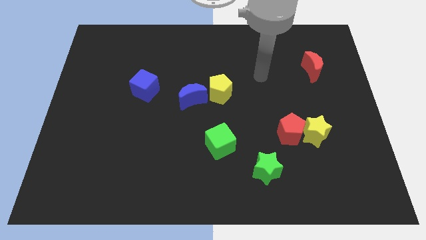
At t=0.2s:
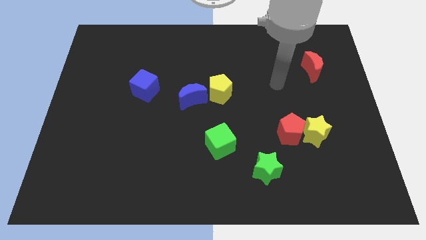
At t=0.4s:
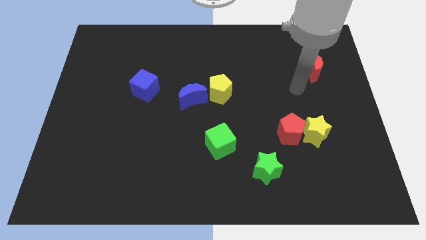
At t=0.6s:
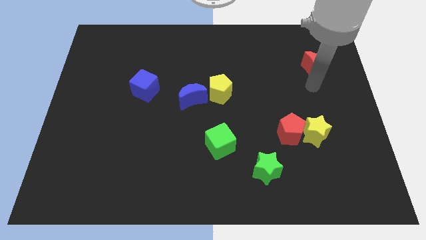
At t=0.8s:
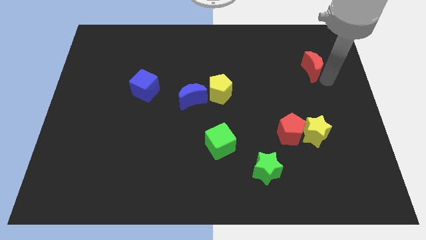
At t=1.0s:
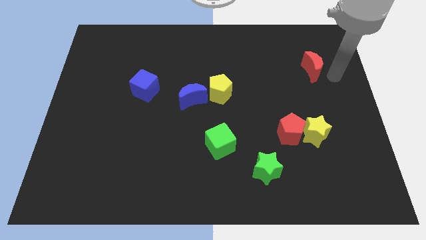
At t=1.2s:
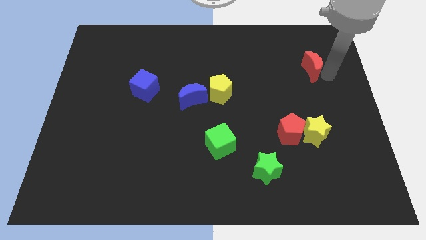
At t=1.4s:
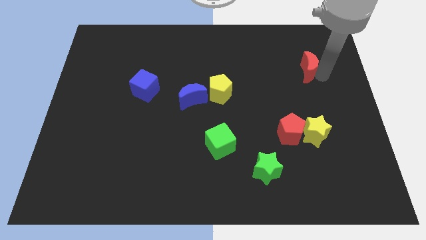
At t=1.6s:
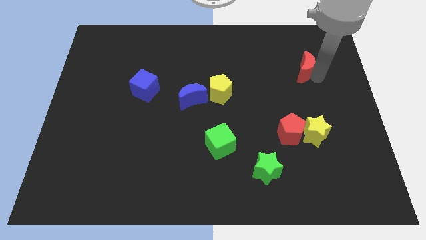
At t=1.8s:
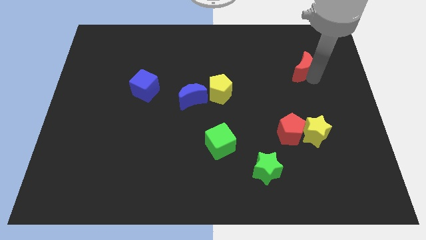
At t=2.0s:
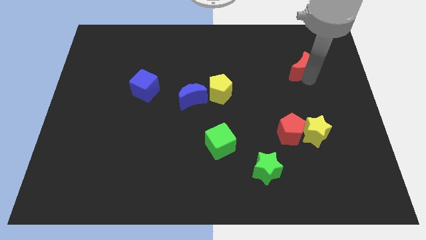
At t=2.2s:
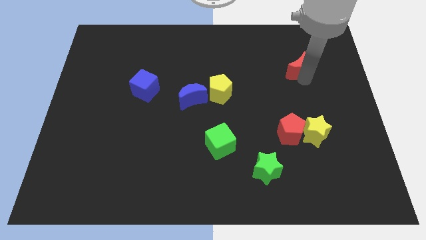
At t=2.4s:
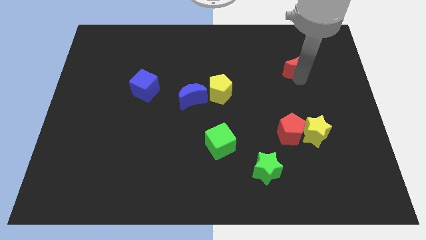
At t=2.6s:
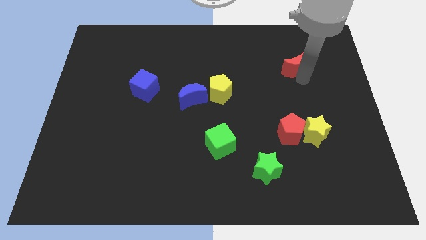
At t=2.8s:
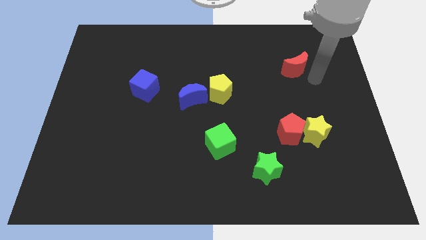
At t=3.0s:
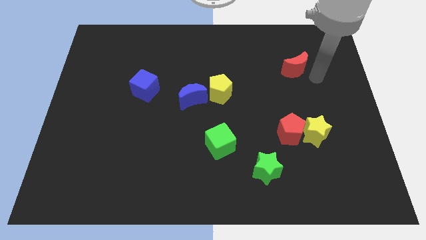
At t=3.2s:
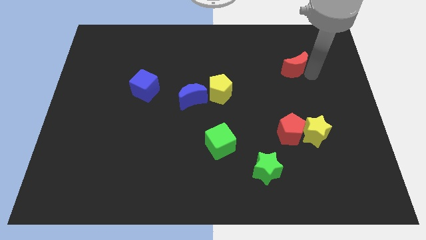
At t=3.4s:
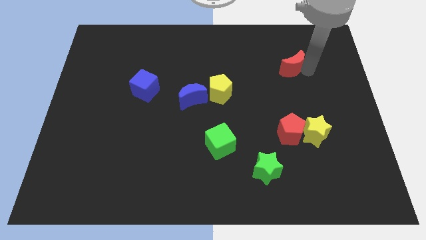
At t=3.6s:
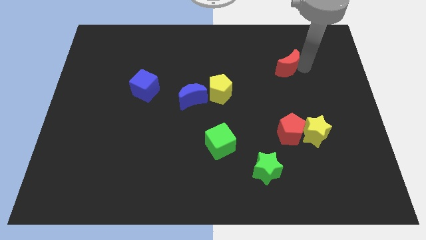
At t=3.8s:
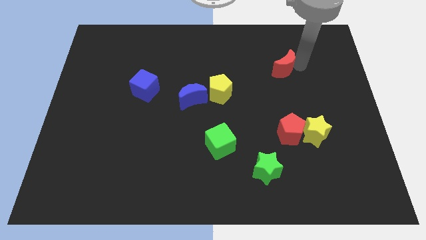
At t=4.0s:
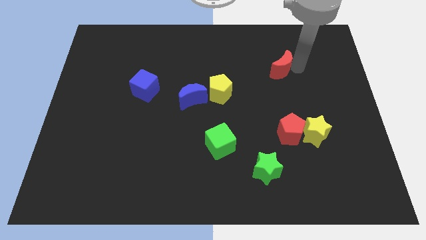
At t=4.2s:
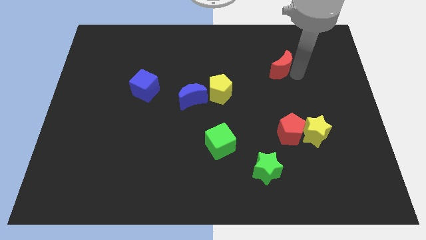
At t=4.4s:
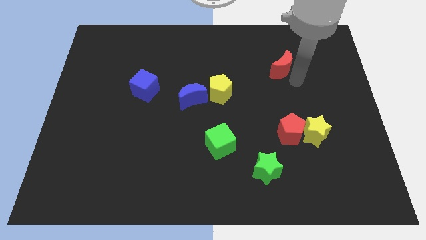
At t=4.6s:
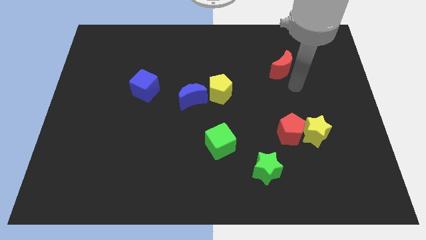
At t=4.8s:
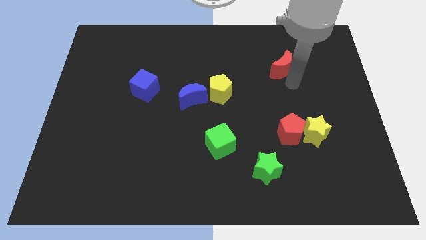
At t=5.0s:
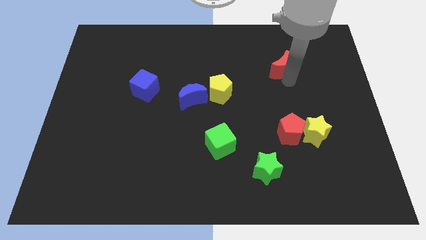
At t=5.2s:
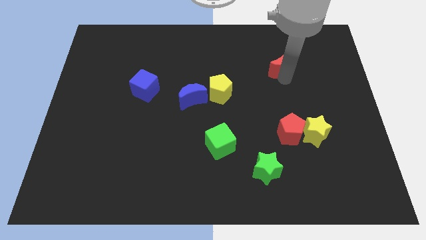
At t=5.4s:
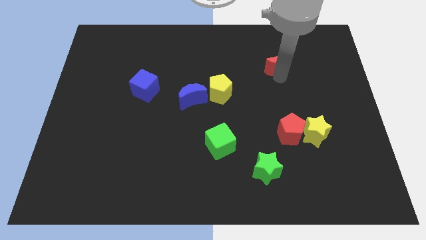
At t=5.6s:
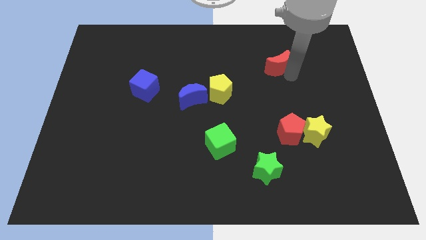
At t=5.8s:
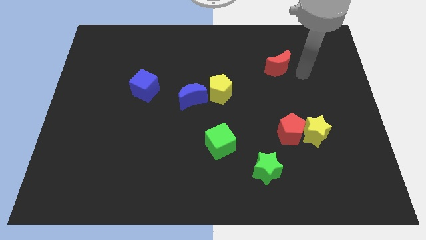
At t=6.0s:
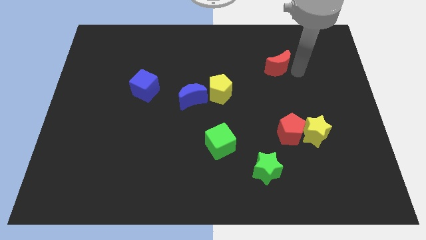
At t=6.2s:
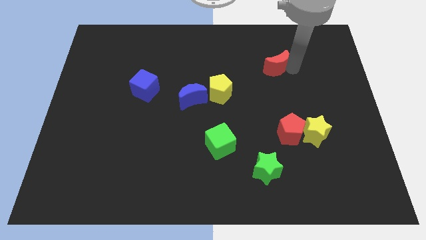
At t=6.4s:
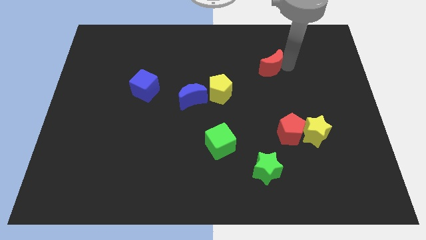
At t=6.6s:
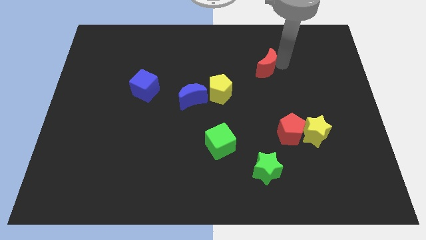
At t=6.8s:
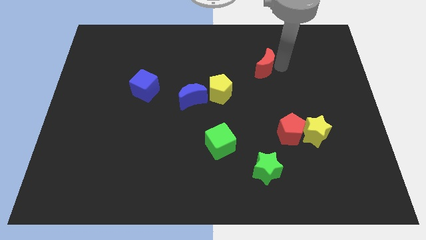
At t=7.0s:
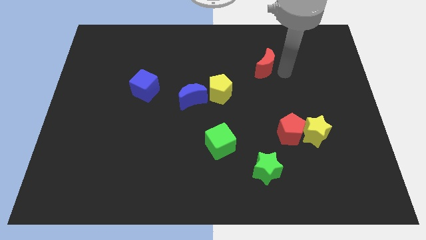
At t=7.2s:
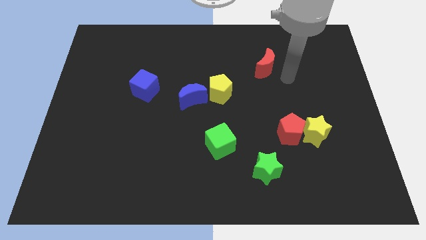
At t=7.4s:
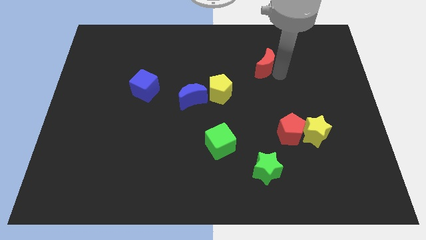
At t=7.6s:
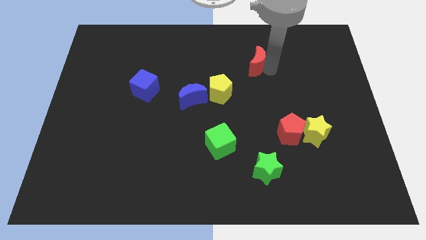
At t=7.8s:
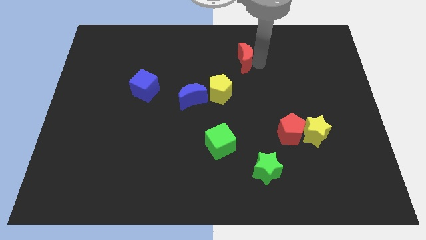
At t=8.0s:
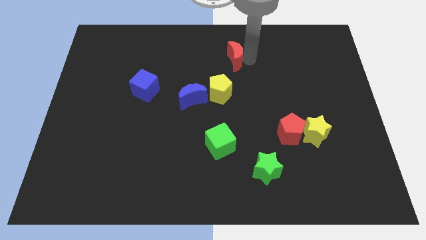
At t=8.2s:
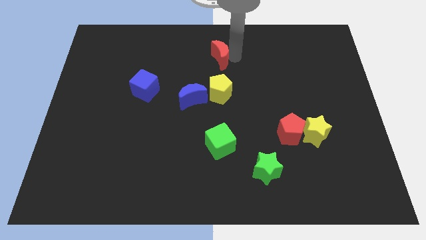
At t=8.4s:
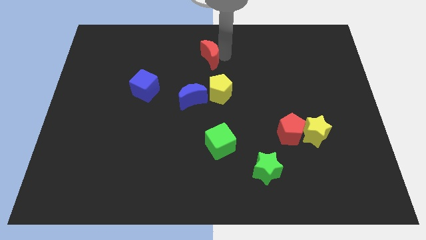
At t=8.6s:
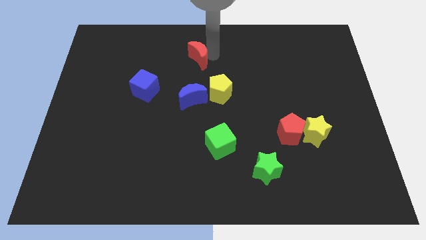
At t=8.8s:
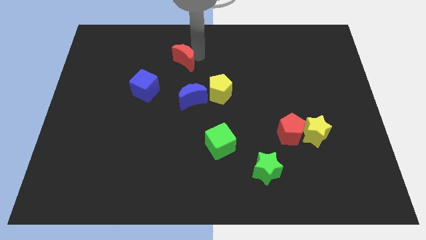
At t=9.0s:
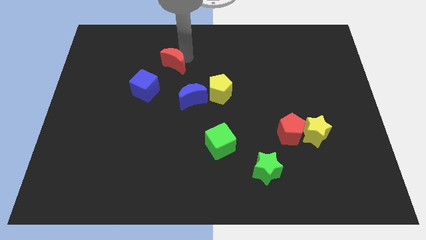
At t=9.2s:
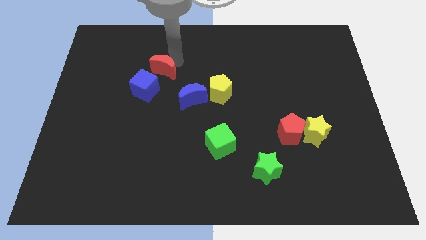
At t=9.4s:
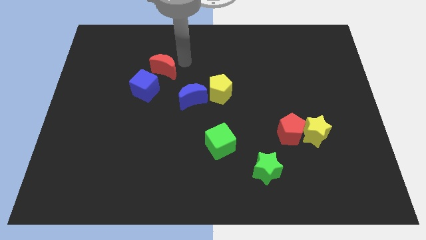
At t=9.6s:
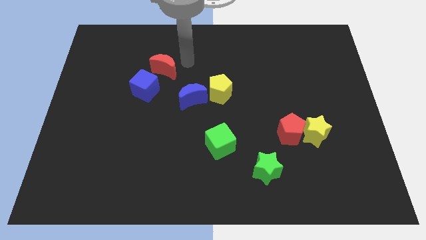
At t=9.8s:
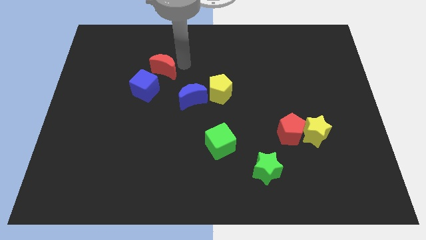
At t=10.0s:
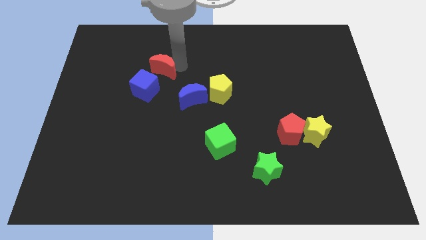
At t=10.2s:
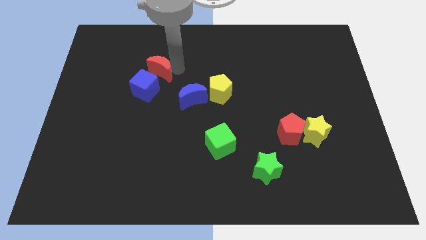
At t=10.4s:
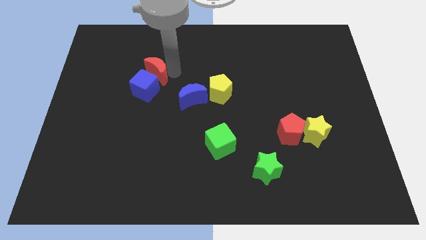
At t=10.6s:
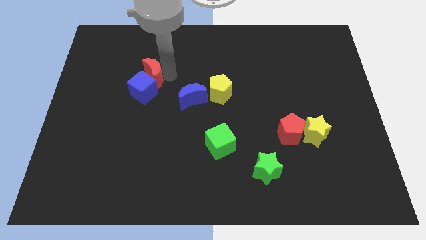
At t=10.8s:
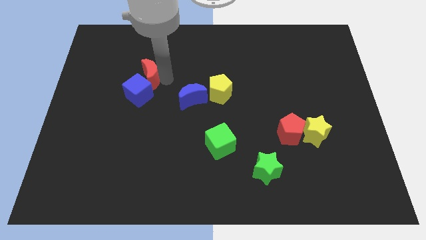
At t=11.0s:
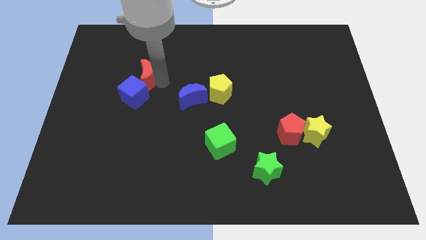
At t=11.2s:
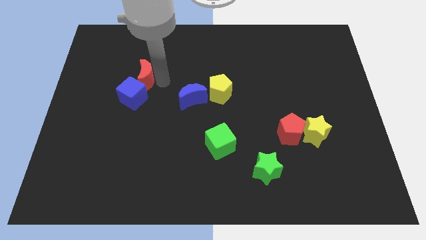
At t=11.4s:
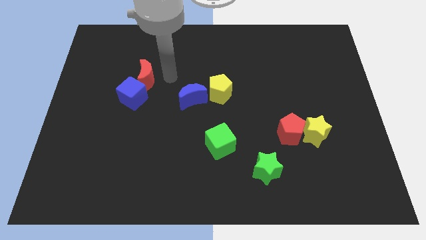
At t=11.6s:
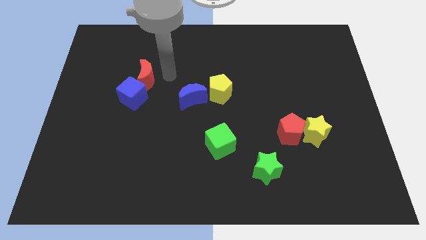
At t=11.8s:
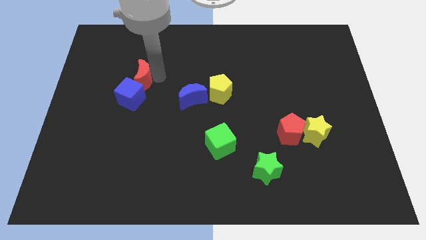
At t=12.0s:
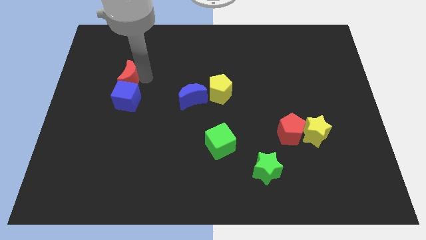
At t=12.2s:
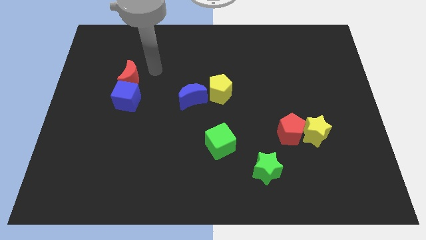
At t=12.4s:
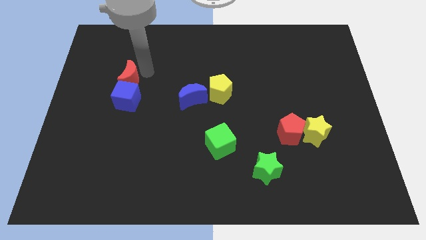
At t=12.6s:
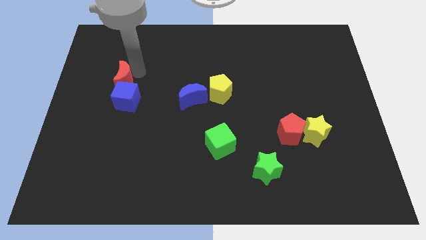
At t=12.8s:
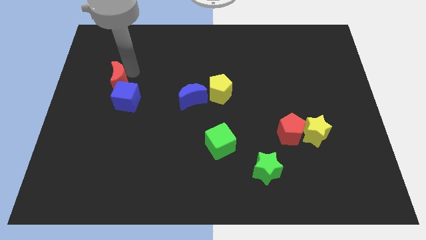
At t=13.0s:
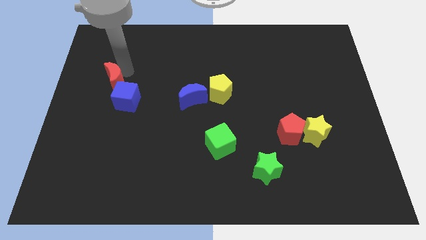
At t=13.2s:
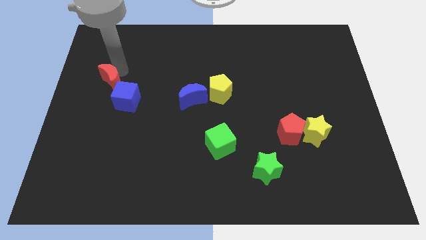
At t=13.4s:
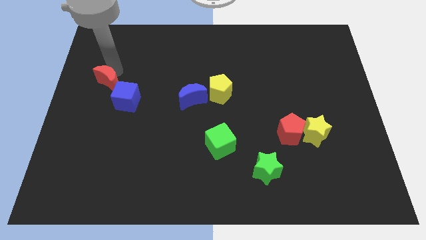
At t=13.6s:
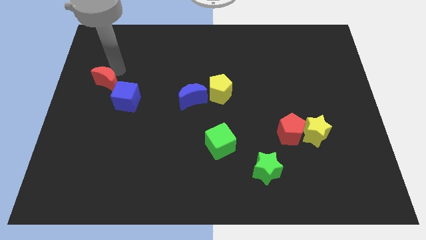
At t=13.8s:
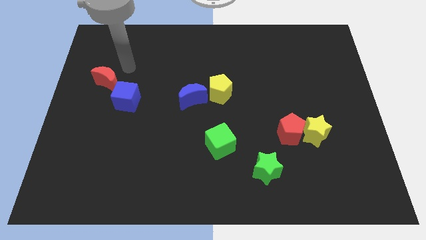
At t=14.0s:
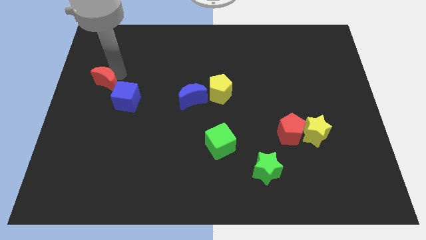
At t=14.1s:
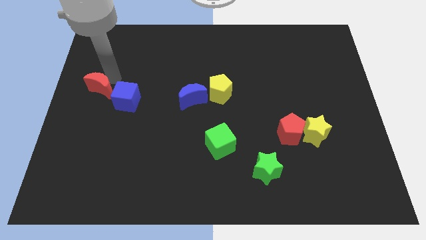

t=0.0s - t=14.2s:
put the red moon to the left of the blue cube
